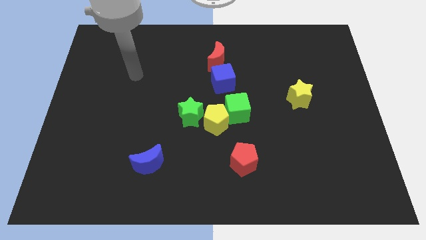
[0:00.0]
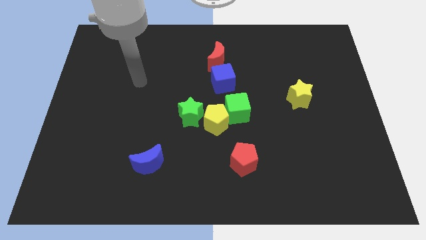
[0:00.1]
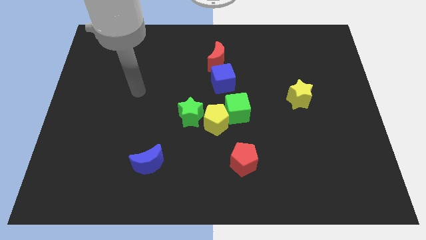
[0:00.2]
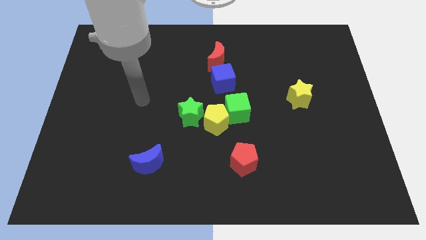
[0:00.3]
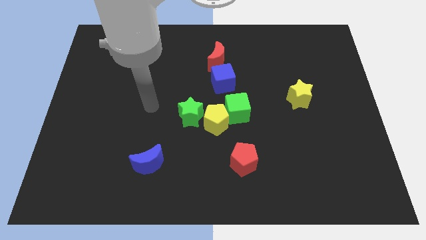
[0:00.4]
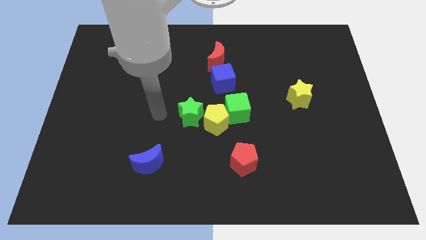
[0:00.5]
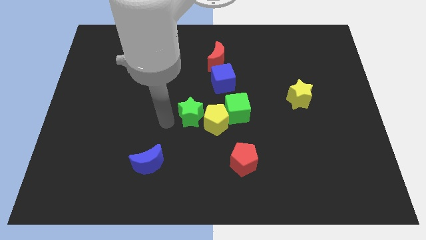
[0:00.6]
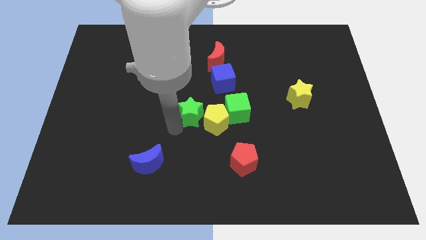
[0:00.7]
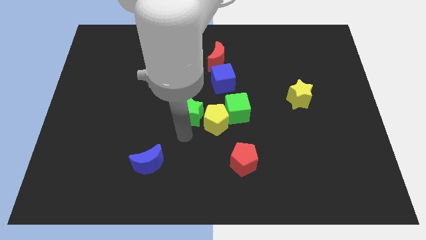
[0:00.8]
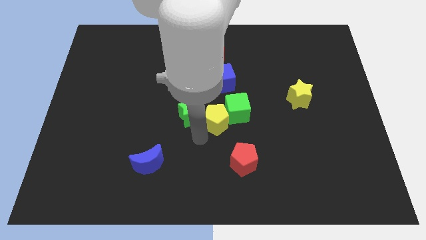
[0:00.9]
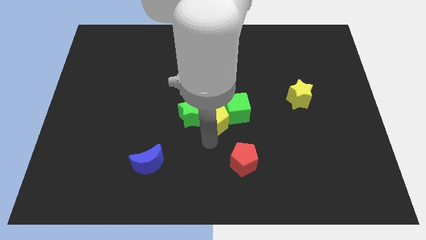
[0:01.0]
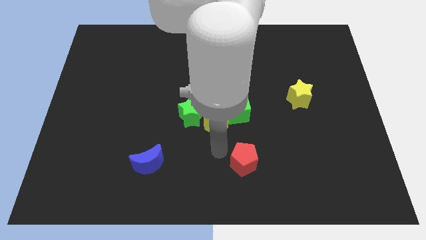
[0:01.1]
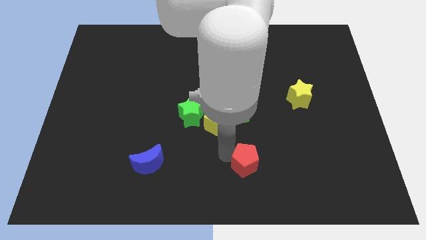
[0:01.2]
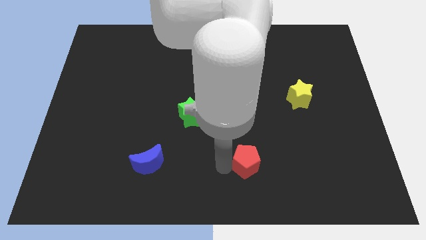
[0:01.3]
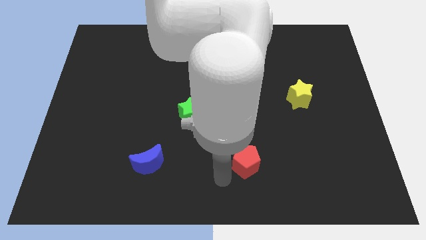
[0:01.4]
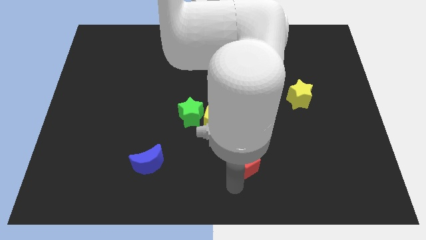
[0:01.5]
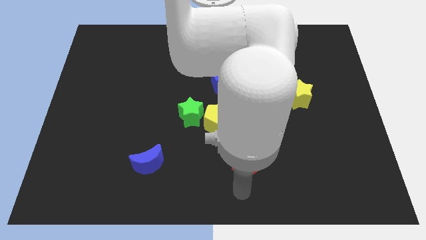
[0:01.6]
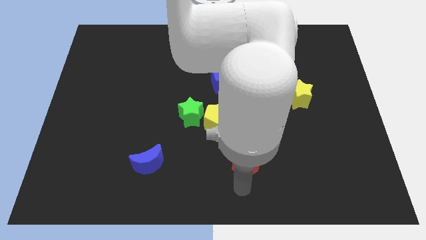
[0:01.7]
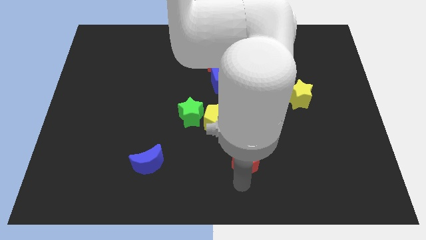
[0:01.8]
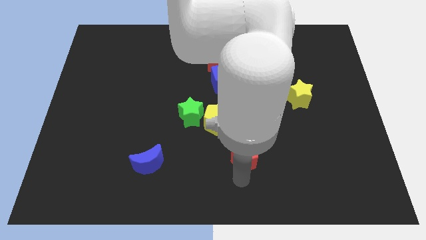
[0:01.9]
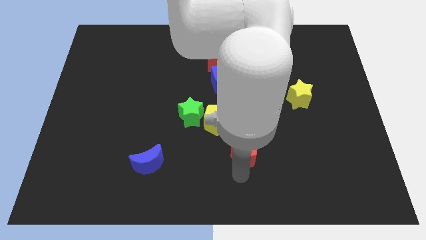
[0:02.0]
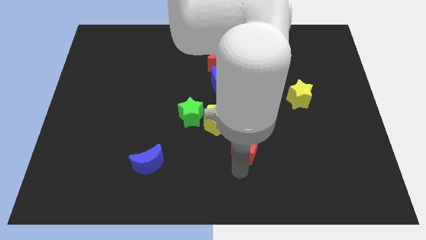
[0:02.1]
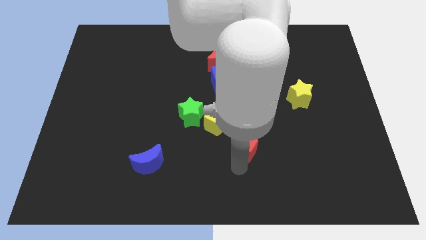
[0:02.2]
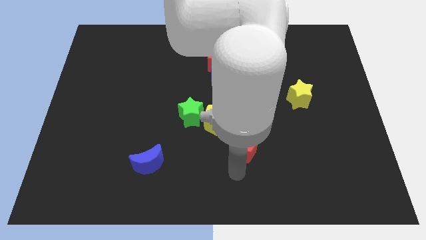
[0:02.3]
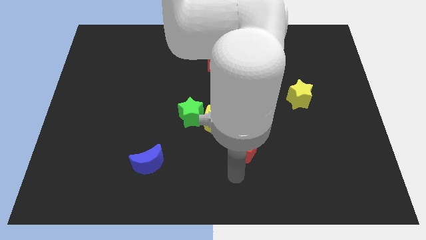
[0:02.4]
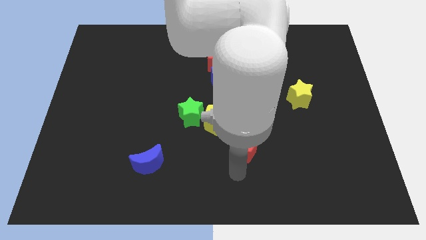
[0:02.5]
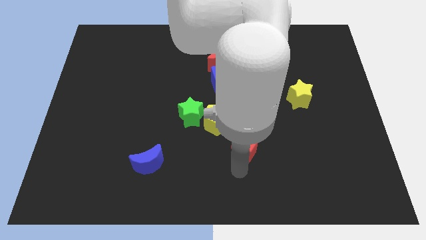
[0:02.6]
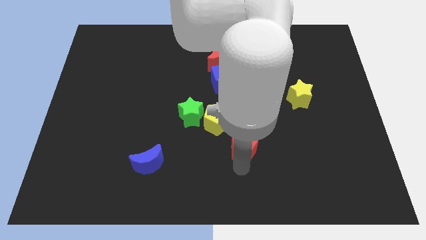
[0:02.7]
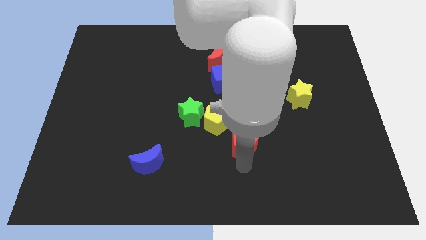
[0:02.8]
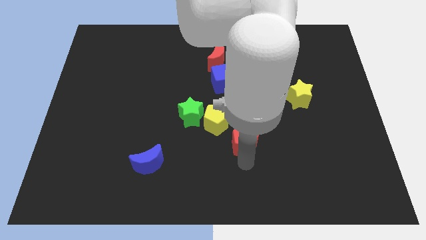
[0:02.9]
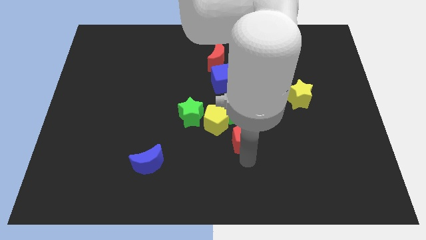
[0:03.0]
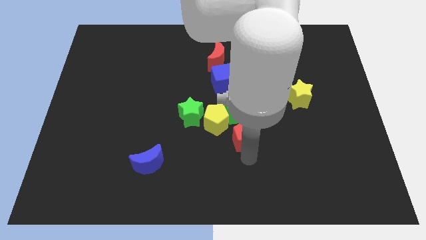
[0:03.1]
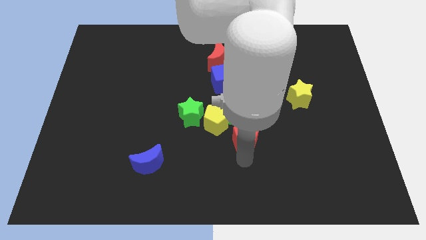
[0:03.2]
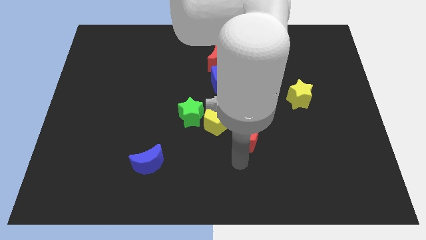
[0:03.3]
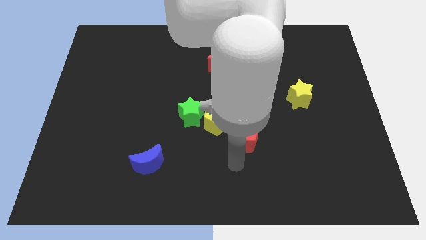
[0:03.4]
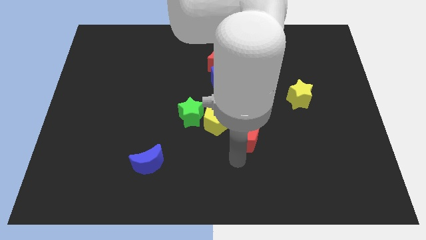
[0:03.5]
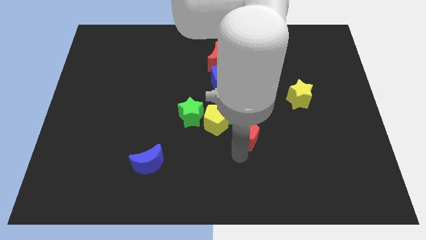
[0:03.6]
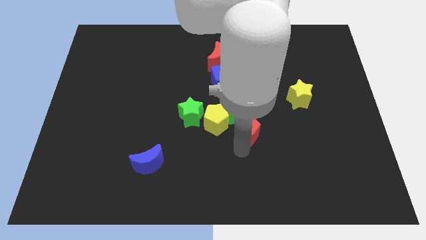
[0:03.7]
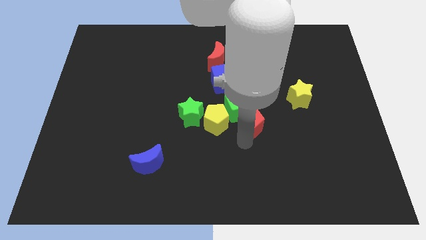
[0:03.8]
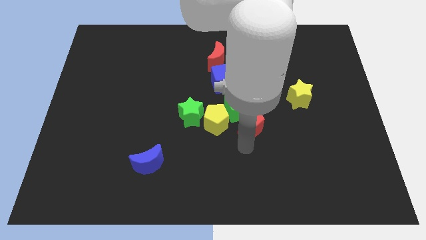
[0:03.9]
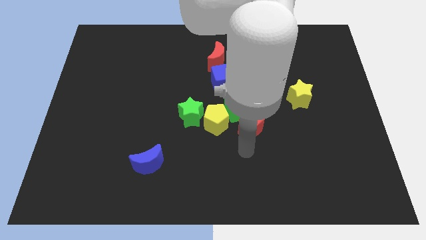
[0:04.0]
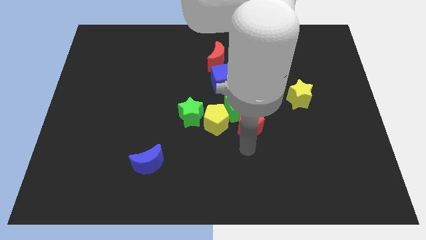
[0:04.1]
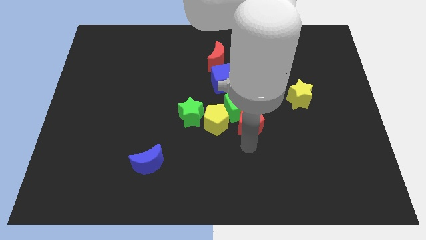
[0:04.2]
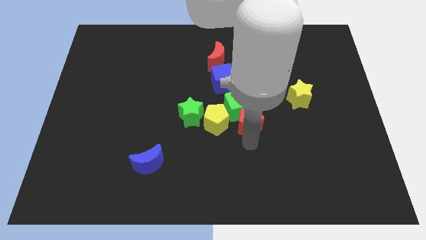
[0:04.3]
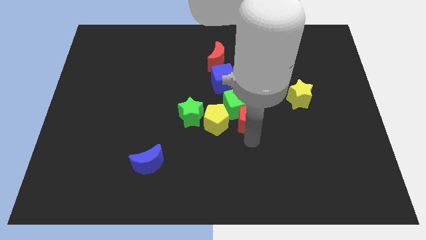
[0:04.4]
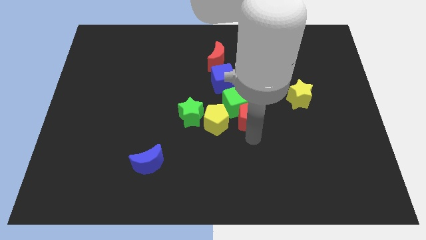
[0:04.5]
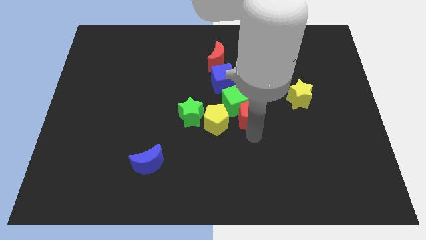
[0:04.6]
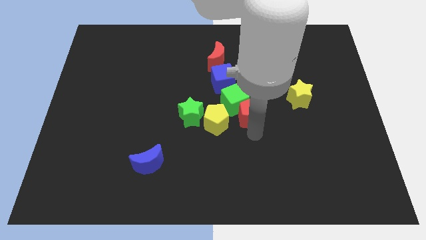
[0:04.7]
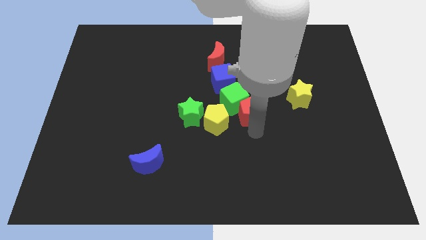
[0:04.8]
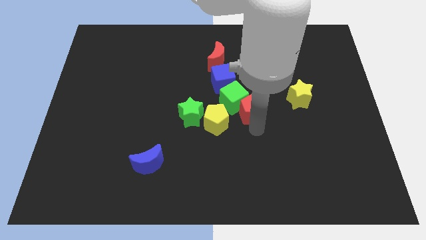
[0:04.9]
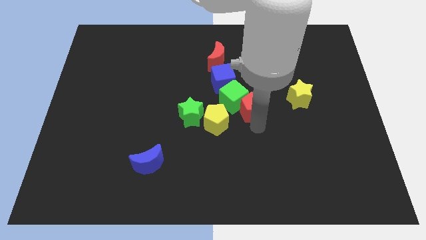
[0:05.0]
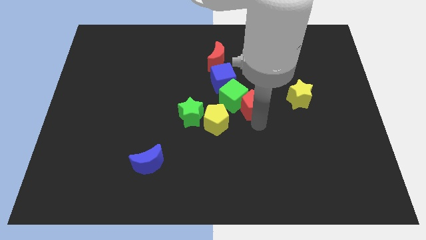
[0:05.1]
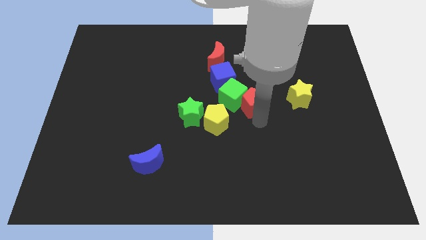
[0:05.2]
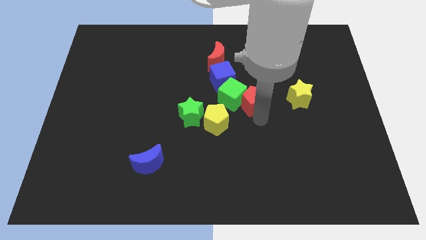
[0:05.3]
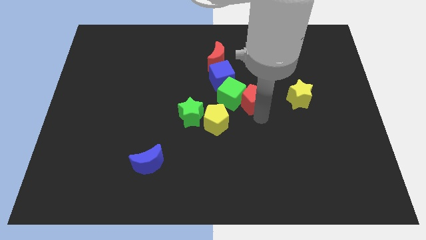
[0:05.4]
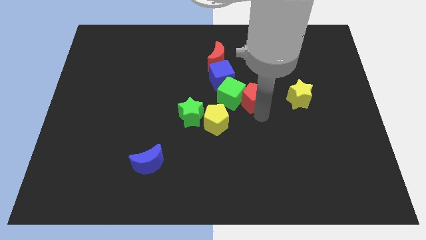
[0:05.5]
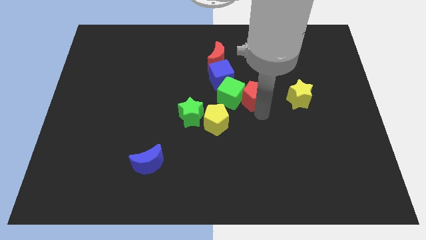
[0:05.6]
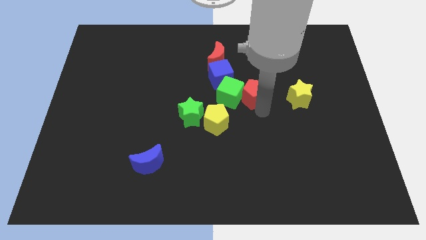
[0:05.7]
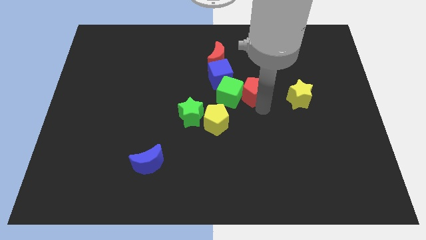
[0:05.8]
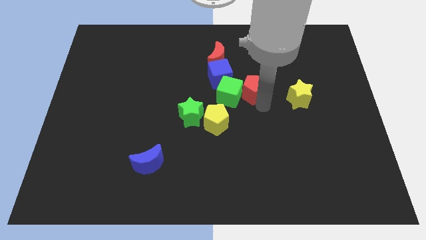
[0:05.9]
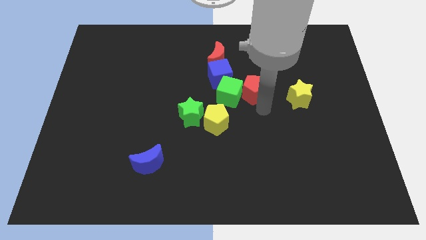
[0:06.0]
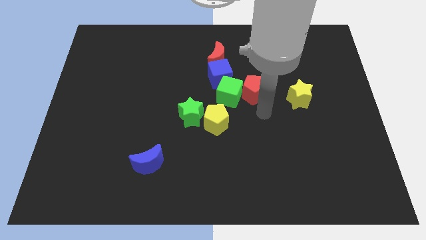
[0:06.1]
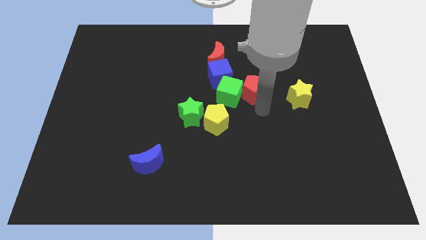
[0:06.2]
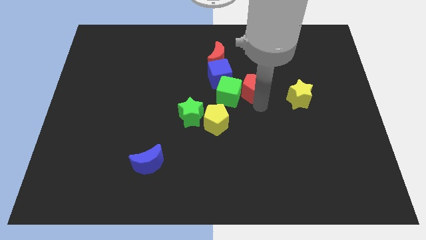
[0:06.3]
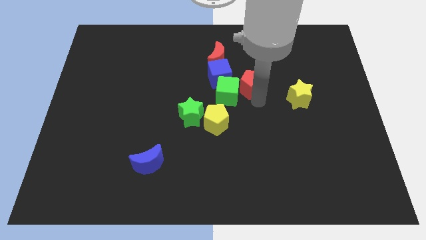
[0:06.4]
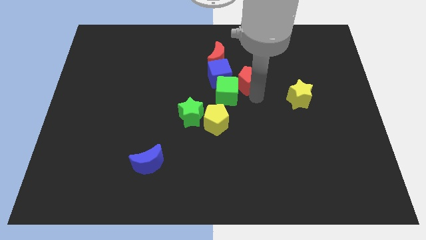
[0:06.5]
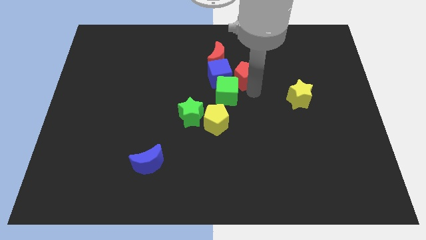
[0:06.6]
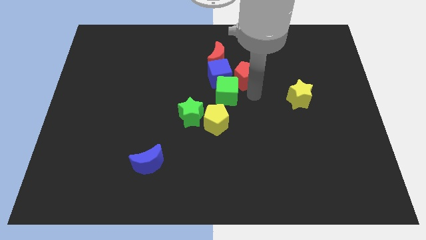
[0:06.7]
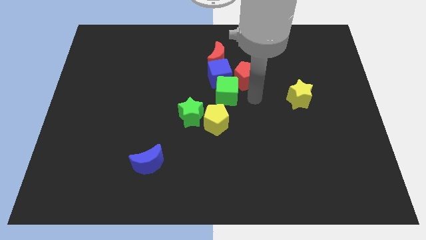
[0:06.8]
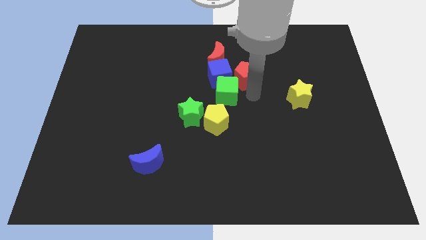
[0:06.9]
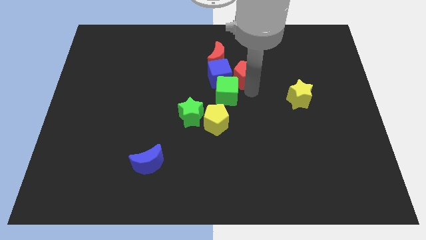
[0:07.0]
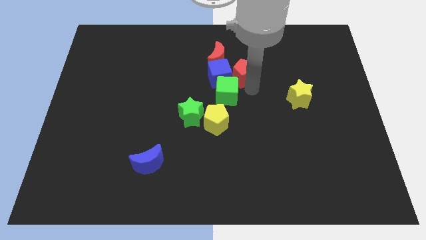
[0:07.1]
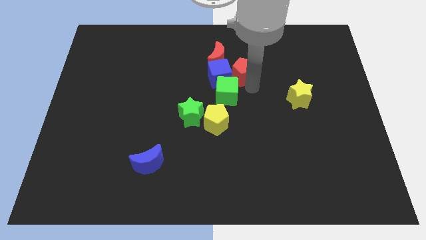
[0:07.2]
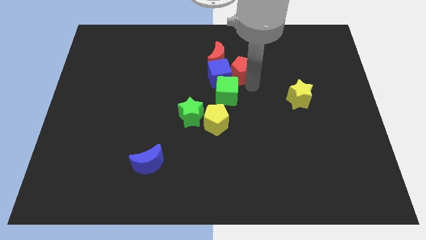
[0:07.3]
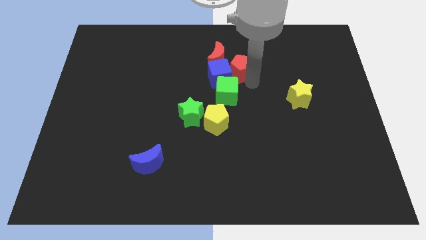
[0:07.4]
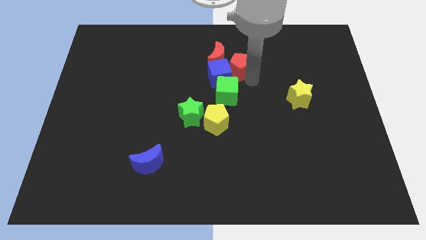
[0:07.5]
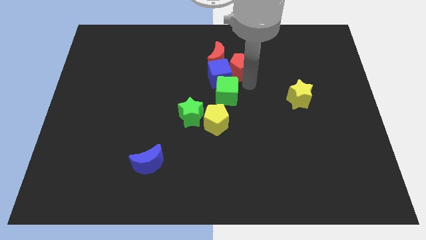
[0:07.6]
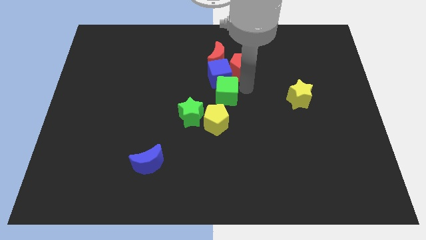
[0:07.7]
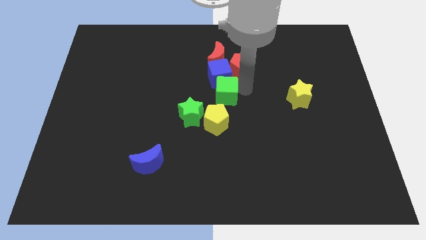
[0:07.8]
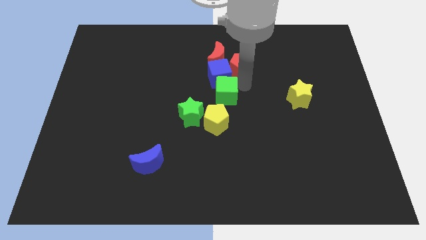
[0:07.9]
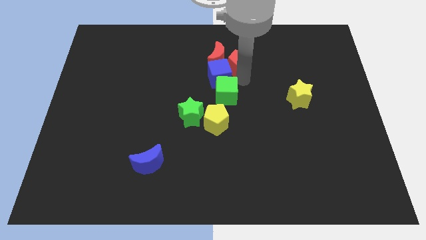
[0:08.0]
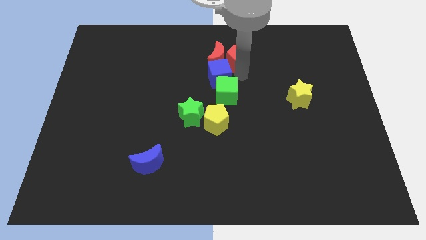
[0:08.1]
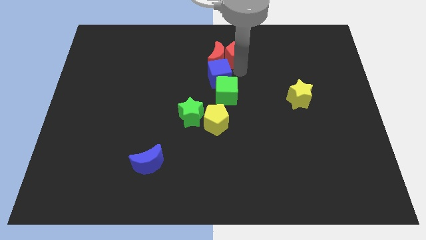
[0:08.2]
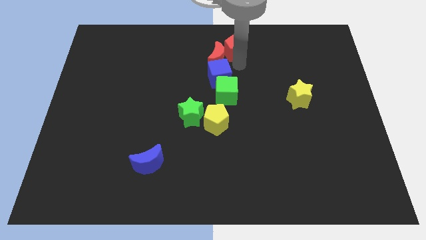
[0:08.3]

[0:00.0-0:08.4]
slide the red pentagon to the top side
